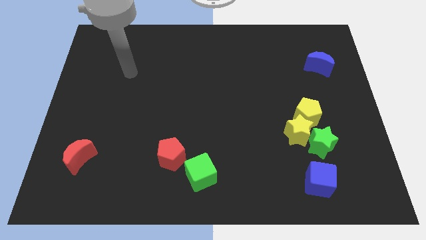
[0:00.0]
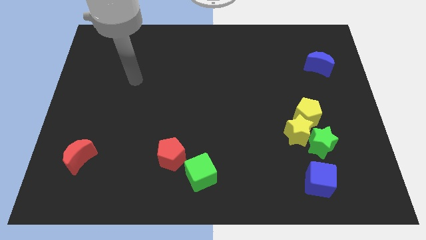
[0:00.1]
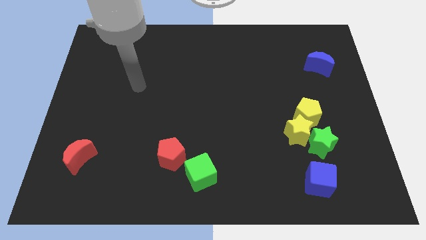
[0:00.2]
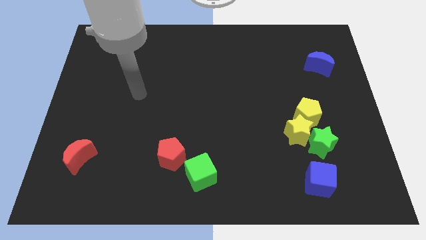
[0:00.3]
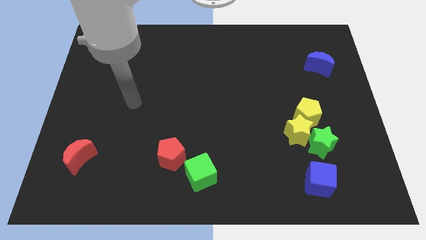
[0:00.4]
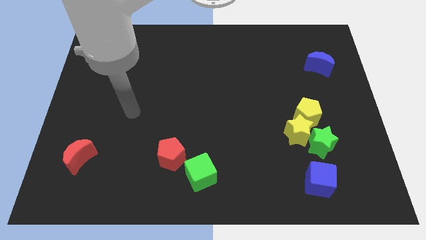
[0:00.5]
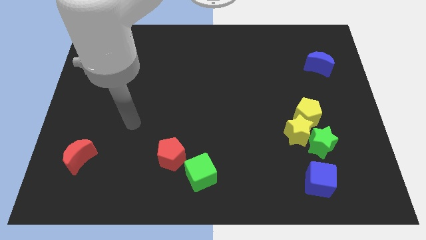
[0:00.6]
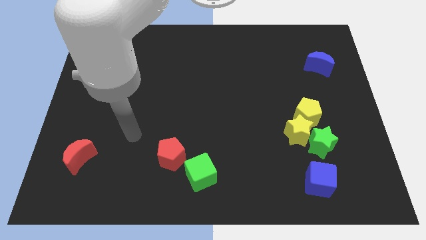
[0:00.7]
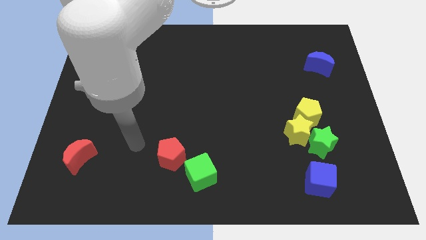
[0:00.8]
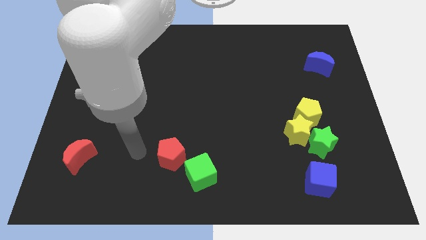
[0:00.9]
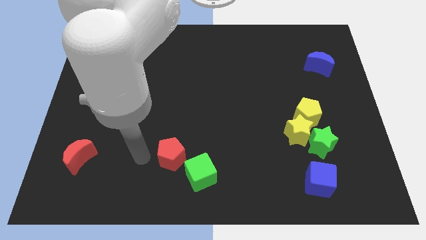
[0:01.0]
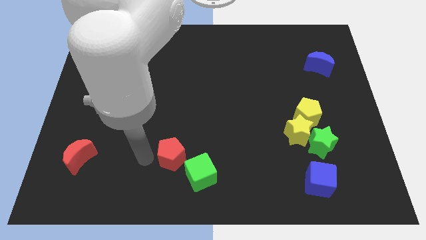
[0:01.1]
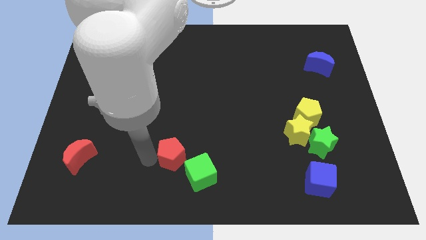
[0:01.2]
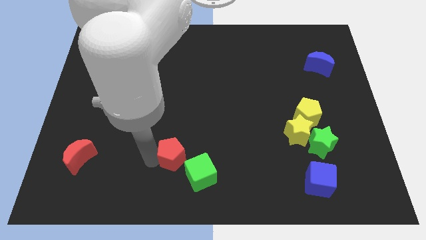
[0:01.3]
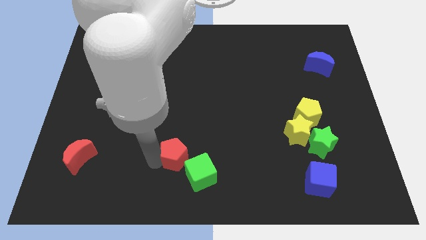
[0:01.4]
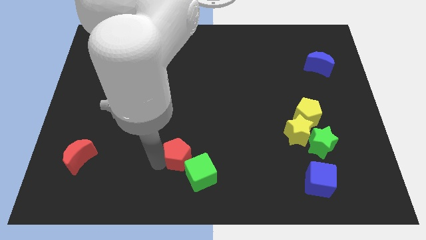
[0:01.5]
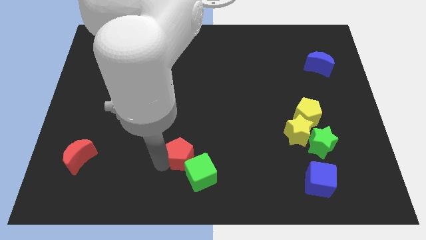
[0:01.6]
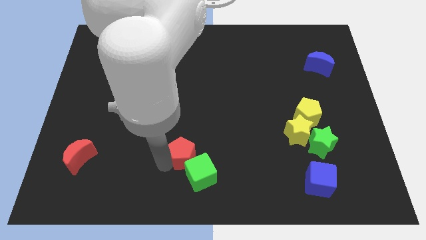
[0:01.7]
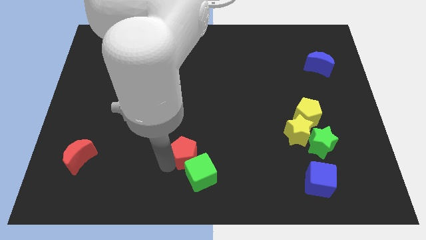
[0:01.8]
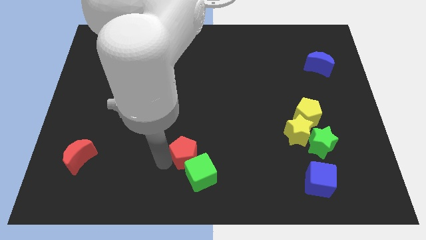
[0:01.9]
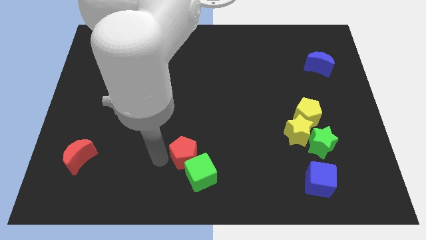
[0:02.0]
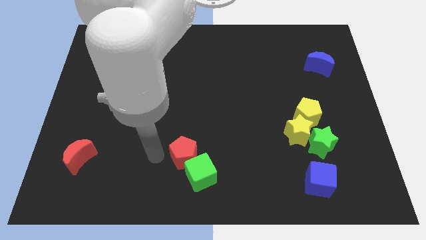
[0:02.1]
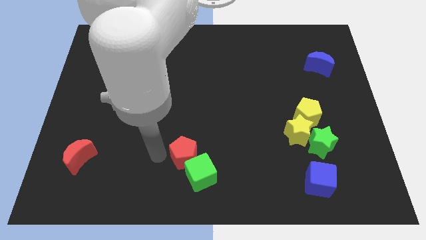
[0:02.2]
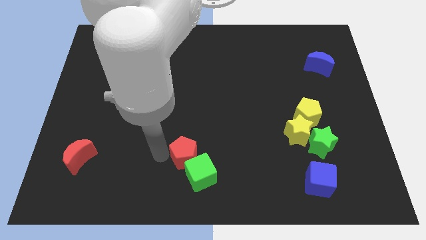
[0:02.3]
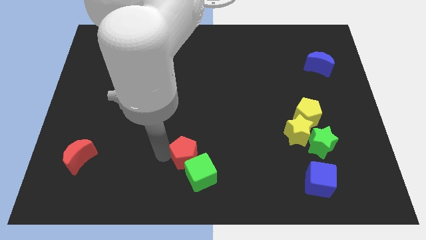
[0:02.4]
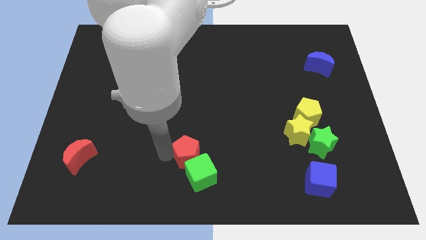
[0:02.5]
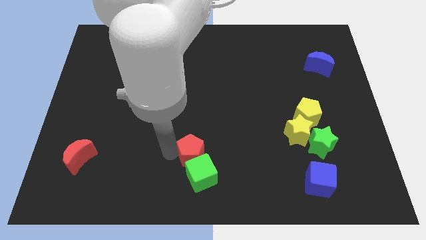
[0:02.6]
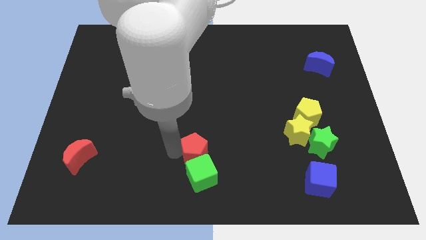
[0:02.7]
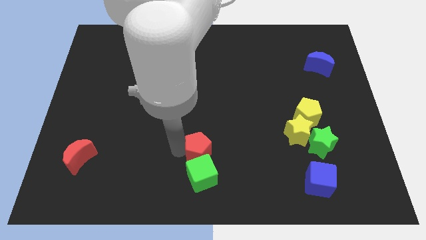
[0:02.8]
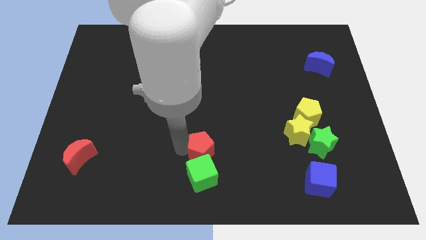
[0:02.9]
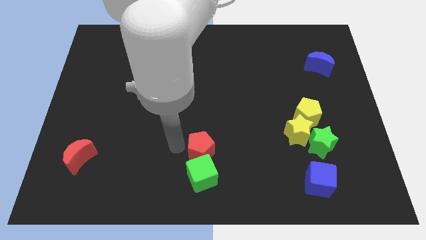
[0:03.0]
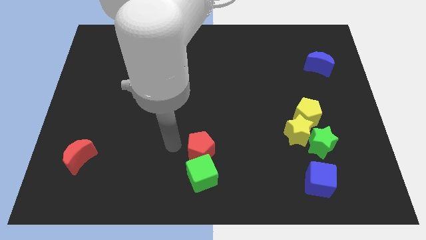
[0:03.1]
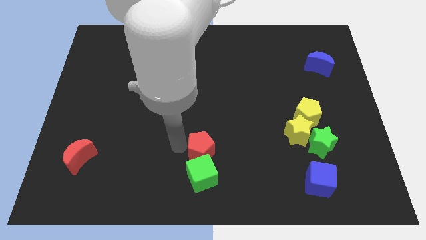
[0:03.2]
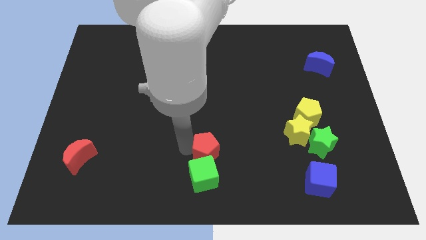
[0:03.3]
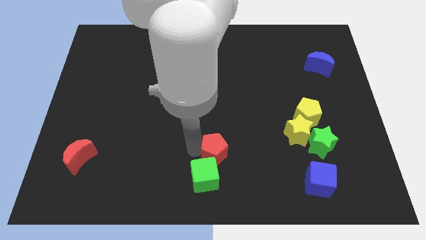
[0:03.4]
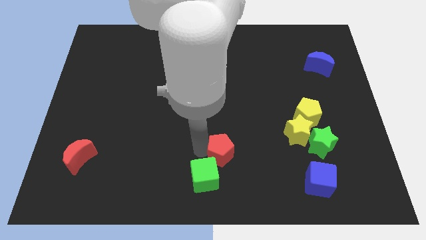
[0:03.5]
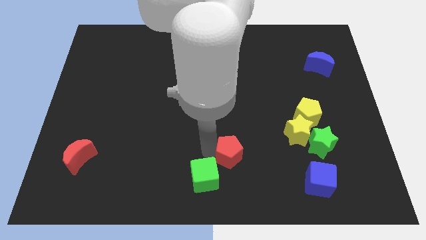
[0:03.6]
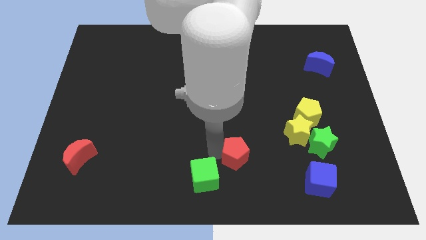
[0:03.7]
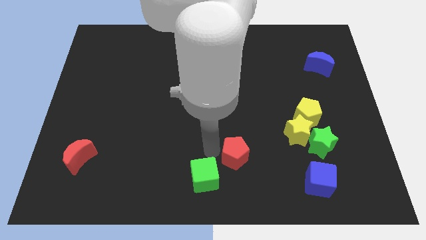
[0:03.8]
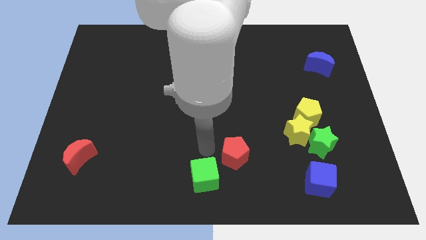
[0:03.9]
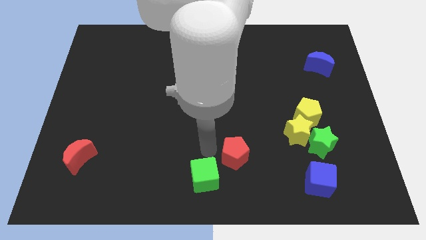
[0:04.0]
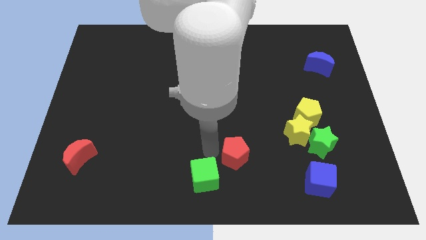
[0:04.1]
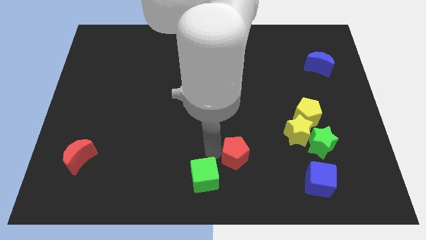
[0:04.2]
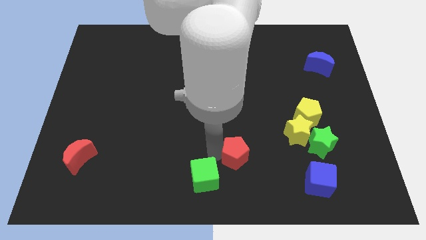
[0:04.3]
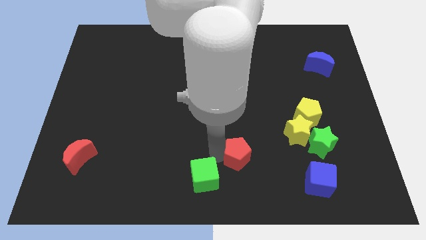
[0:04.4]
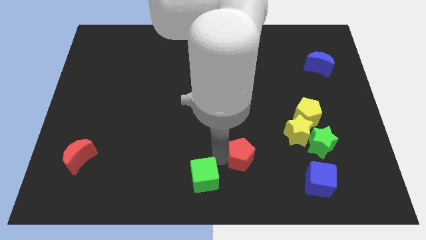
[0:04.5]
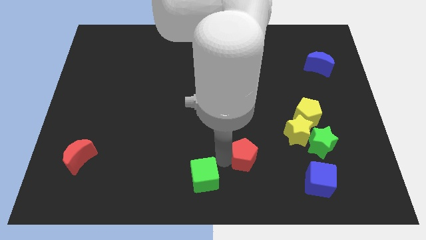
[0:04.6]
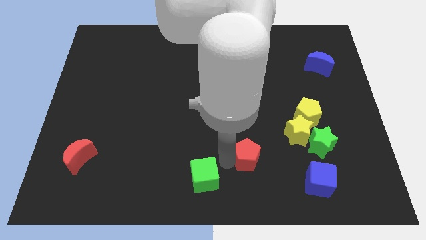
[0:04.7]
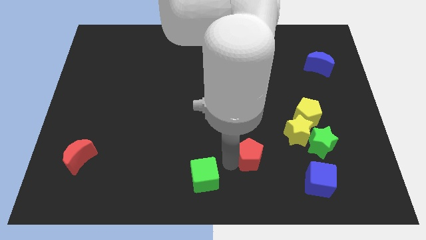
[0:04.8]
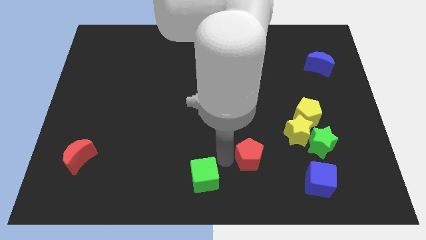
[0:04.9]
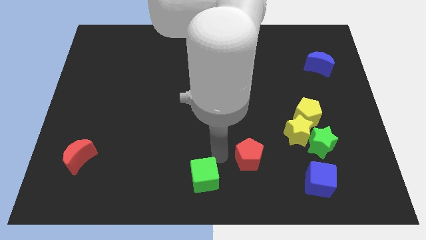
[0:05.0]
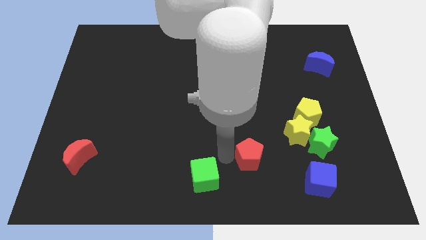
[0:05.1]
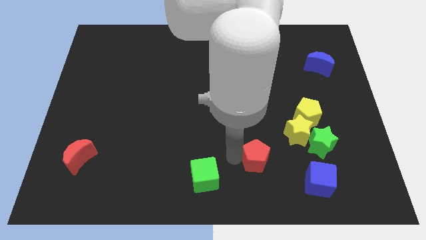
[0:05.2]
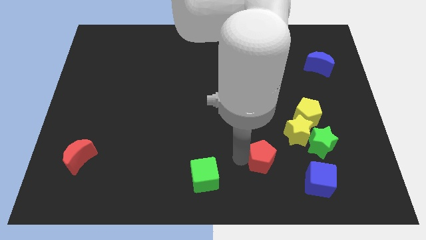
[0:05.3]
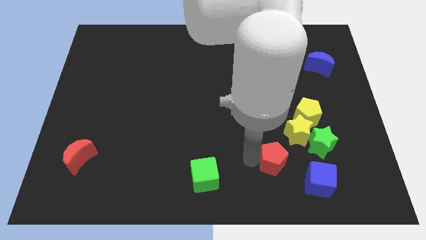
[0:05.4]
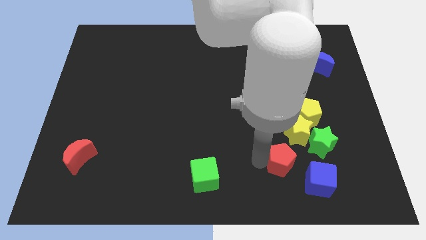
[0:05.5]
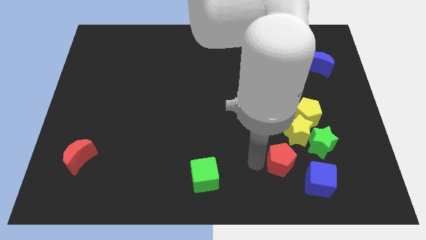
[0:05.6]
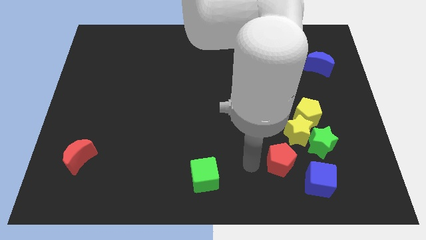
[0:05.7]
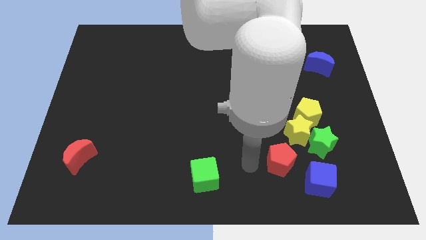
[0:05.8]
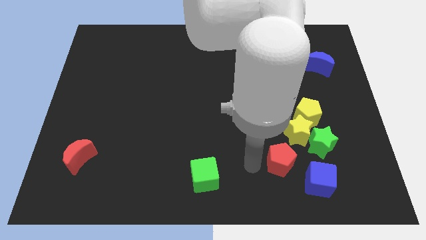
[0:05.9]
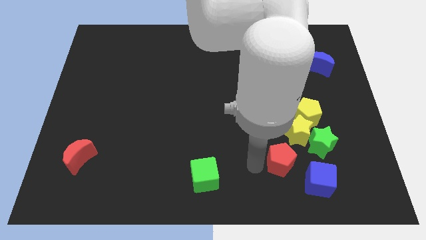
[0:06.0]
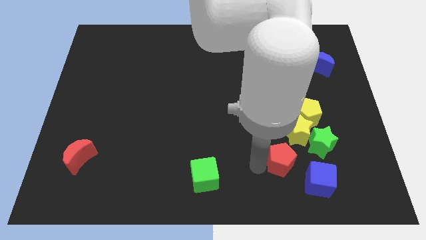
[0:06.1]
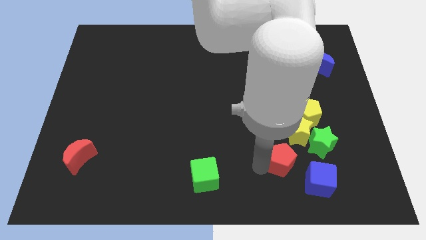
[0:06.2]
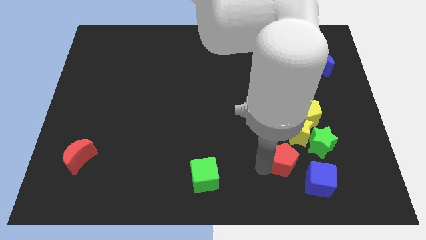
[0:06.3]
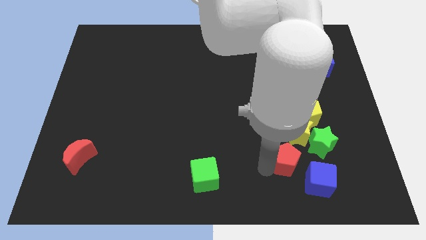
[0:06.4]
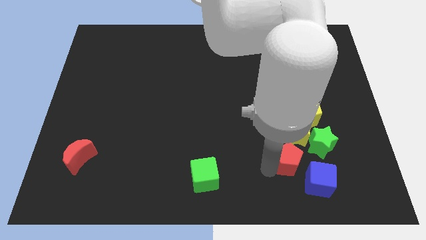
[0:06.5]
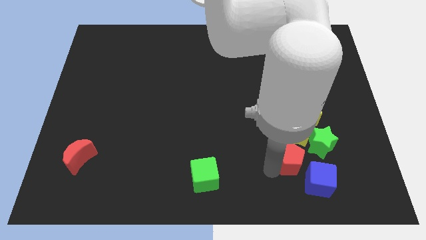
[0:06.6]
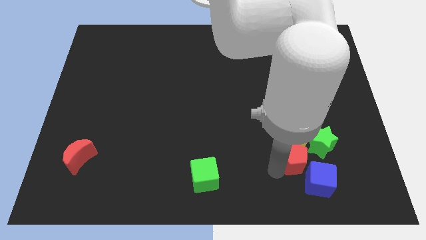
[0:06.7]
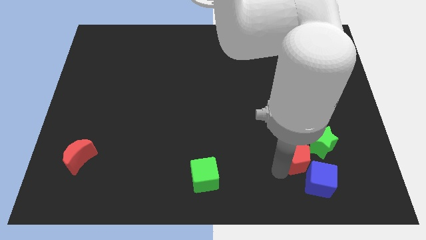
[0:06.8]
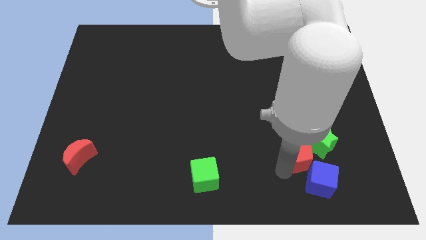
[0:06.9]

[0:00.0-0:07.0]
move the red pentagon to the bottom right of the yellow star

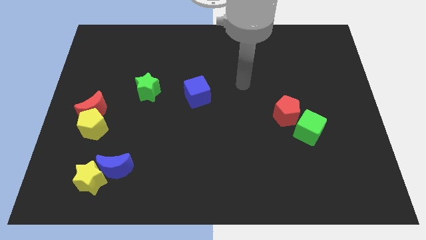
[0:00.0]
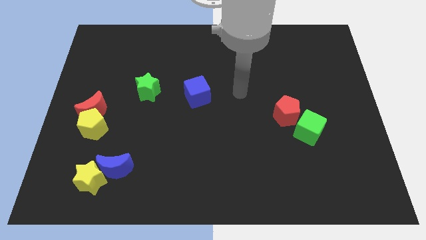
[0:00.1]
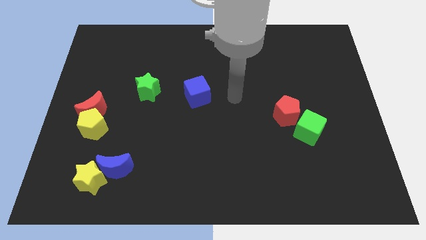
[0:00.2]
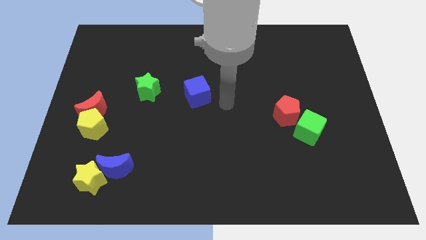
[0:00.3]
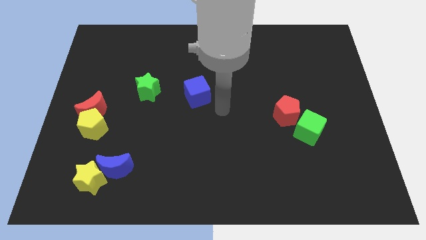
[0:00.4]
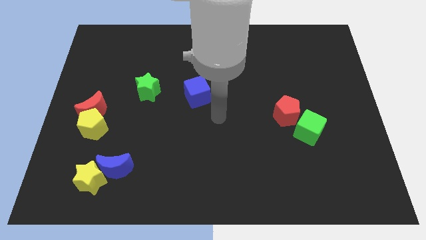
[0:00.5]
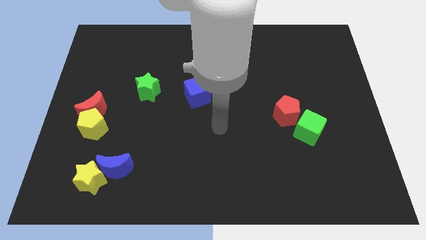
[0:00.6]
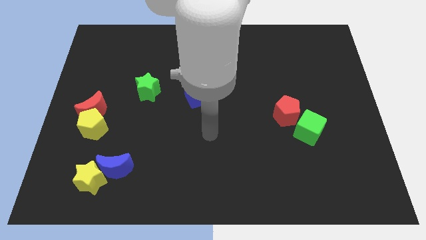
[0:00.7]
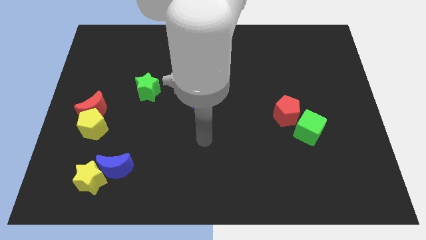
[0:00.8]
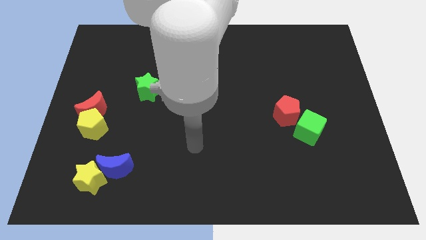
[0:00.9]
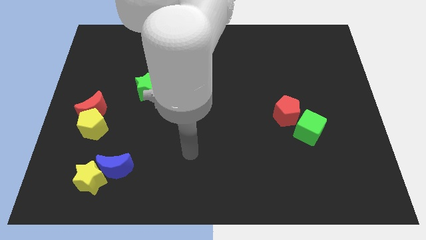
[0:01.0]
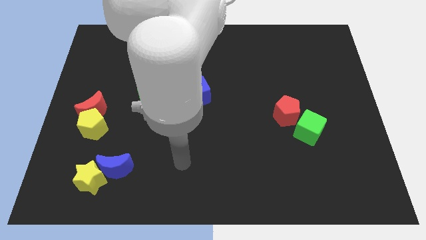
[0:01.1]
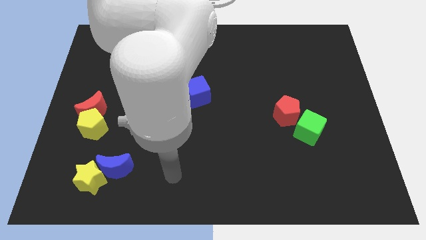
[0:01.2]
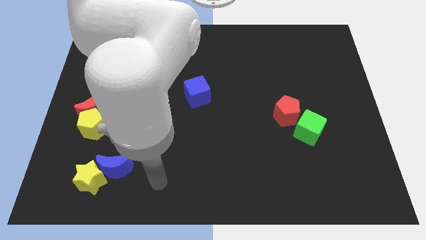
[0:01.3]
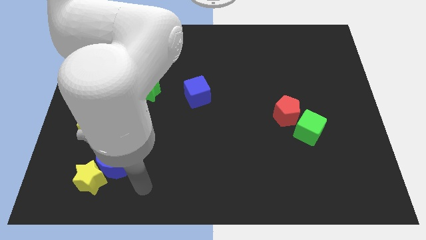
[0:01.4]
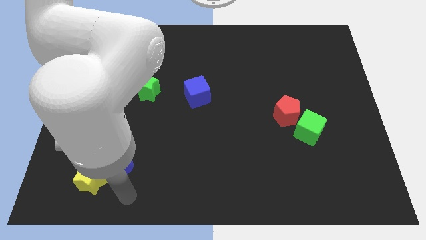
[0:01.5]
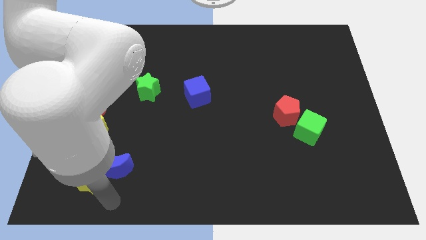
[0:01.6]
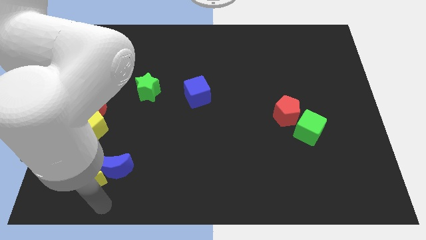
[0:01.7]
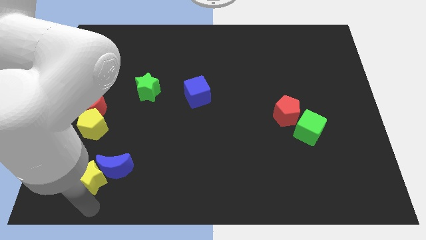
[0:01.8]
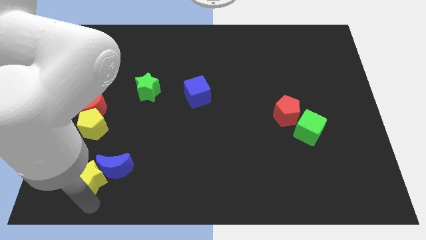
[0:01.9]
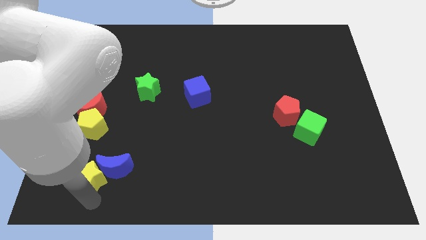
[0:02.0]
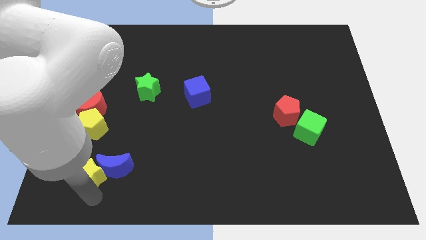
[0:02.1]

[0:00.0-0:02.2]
move the yellow star to the top left side of the blue moon
